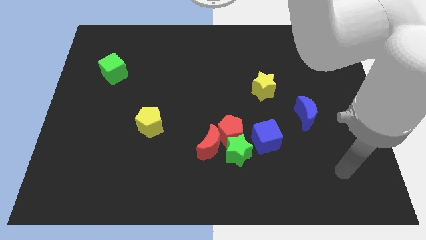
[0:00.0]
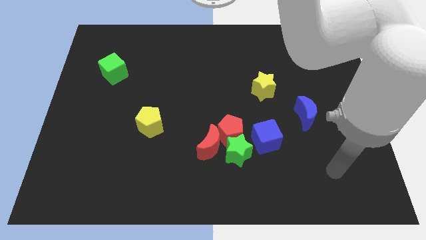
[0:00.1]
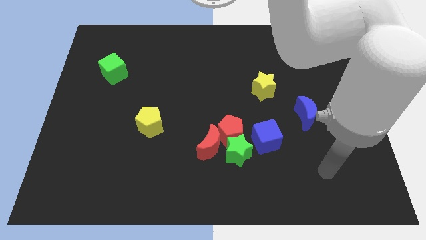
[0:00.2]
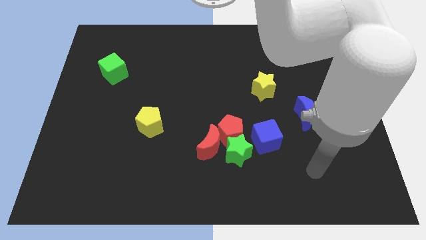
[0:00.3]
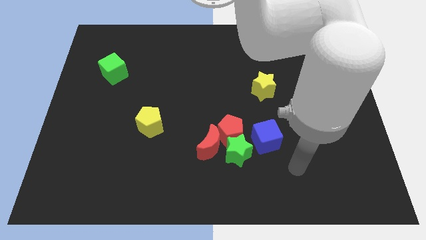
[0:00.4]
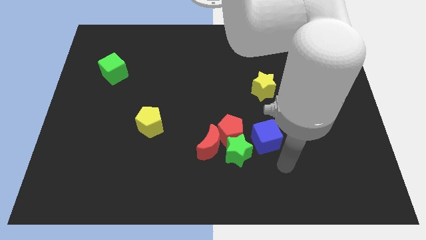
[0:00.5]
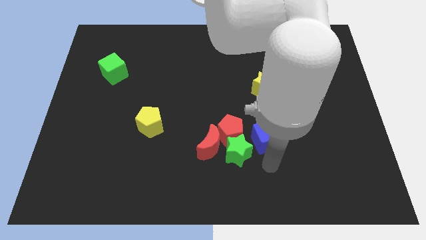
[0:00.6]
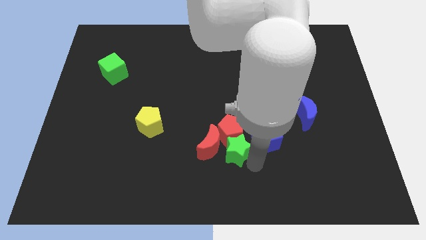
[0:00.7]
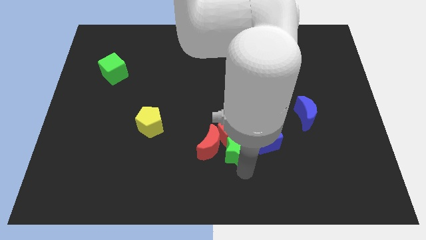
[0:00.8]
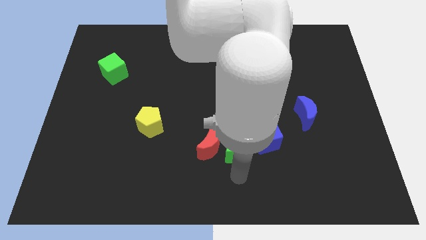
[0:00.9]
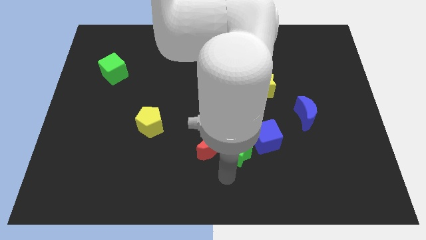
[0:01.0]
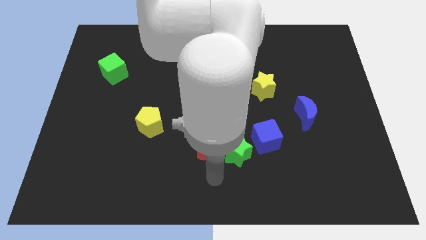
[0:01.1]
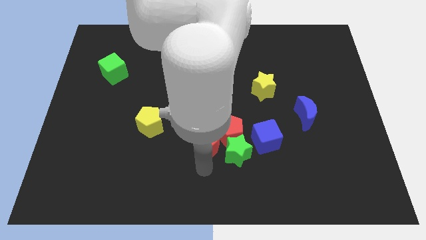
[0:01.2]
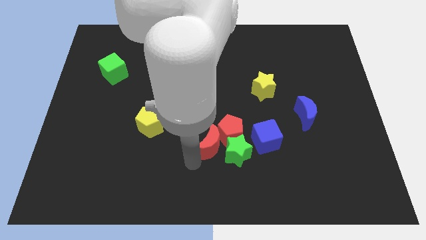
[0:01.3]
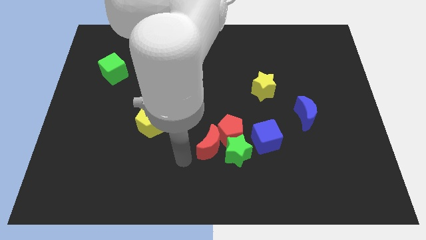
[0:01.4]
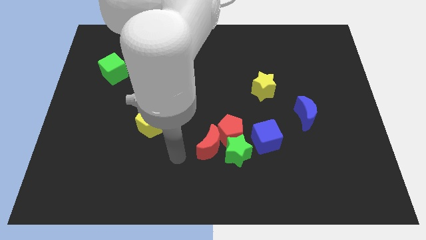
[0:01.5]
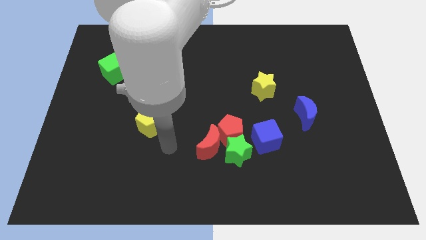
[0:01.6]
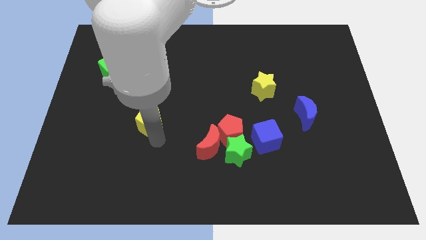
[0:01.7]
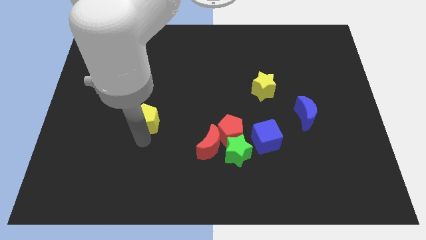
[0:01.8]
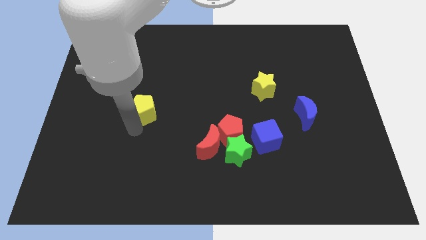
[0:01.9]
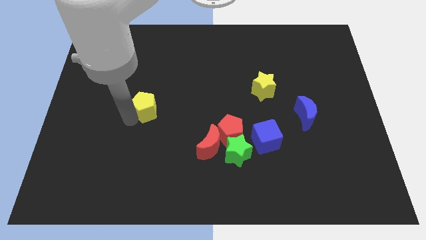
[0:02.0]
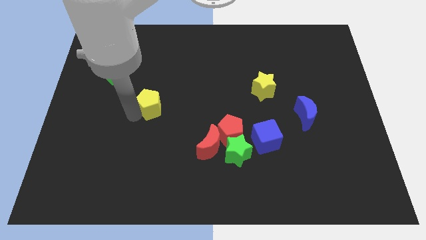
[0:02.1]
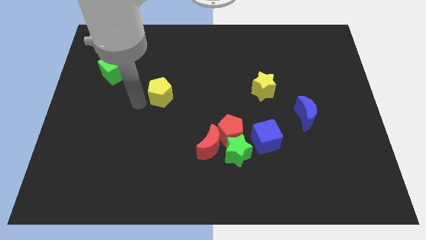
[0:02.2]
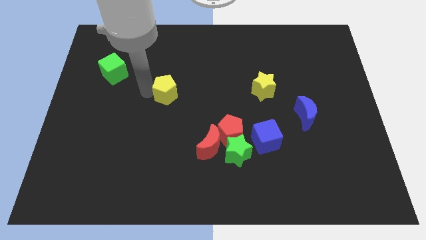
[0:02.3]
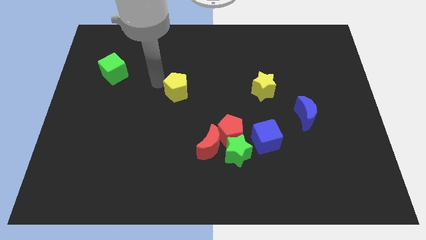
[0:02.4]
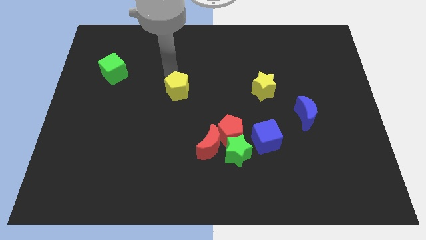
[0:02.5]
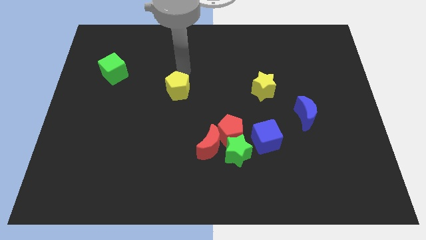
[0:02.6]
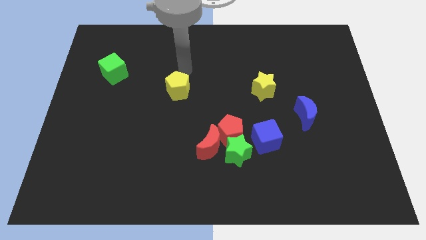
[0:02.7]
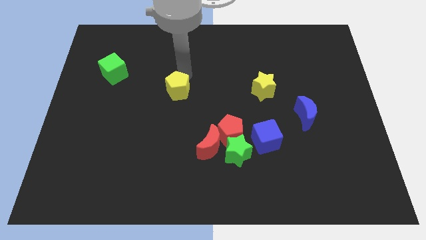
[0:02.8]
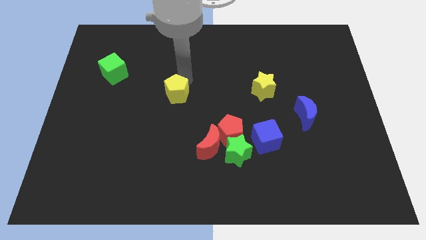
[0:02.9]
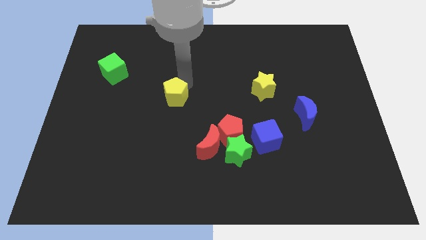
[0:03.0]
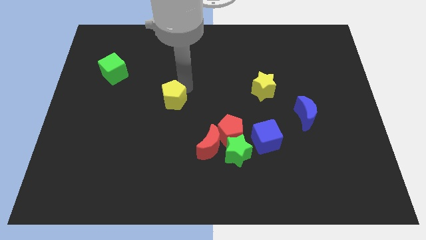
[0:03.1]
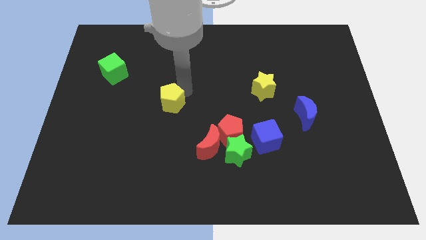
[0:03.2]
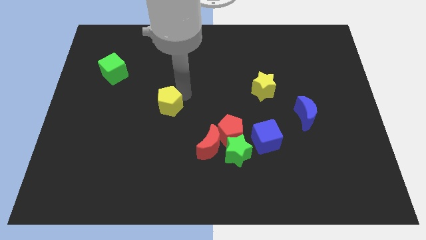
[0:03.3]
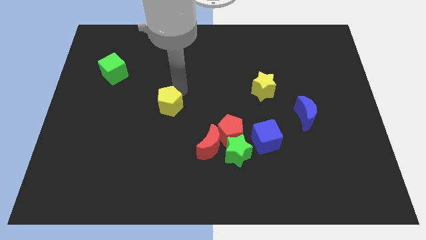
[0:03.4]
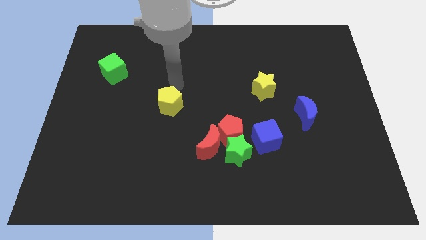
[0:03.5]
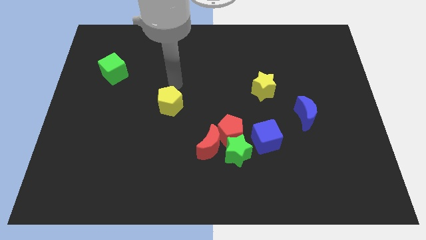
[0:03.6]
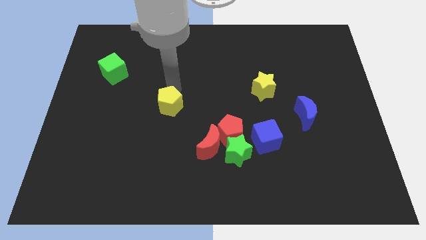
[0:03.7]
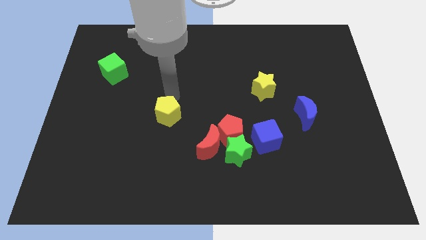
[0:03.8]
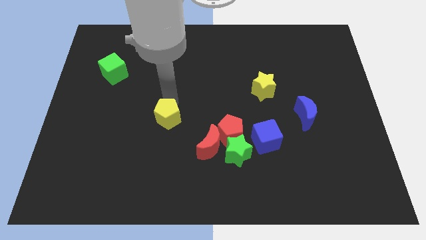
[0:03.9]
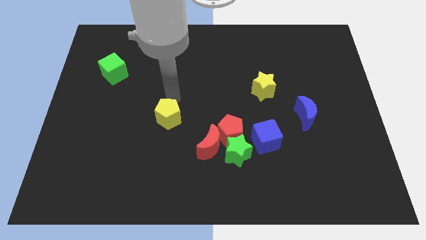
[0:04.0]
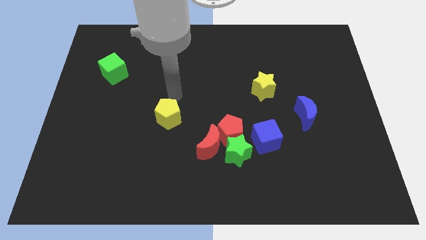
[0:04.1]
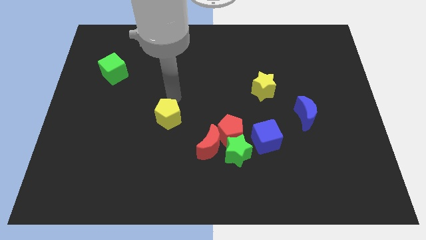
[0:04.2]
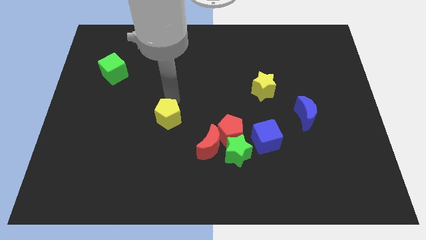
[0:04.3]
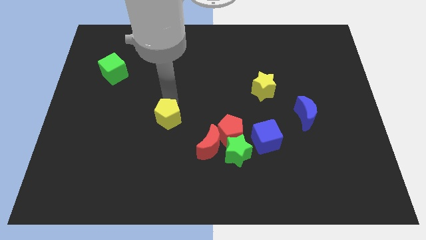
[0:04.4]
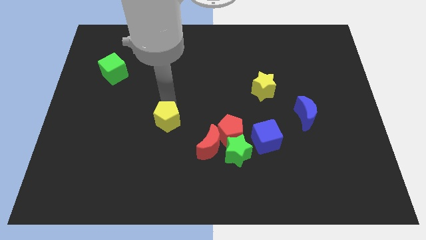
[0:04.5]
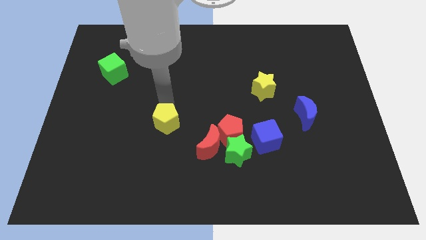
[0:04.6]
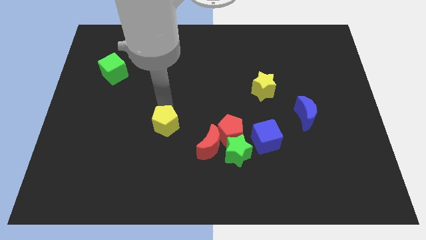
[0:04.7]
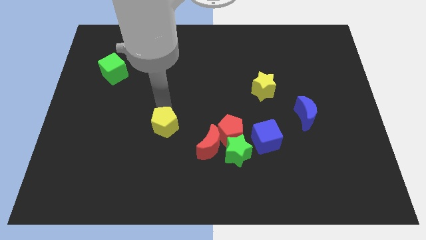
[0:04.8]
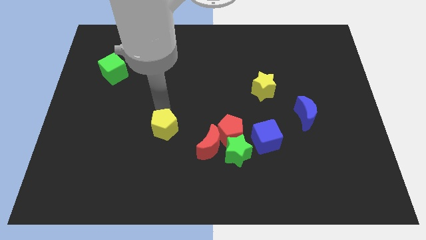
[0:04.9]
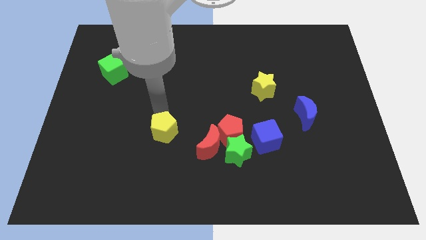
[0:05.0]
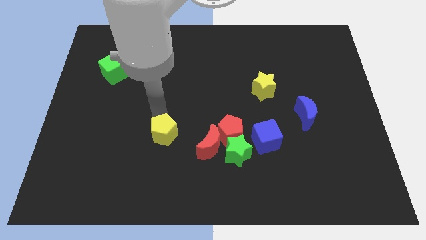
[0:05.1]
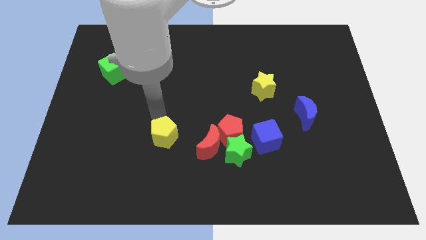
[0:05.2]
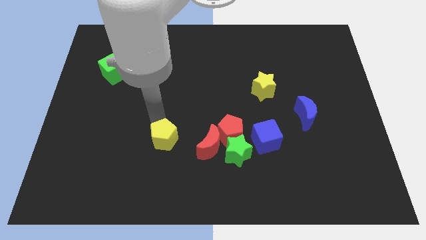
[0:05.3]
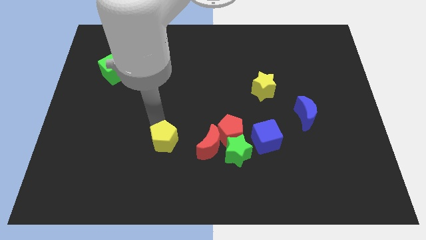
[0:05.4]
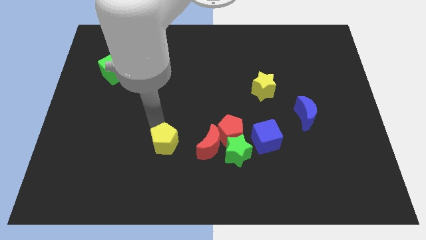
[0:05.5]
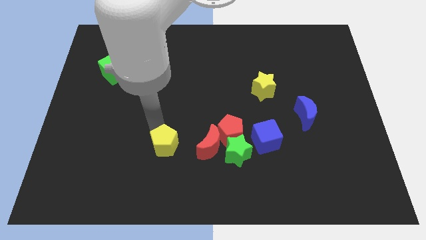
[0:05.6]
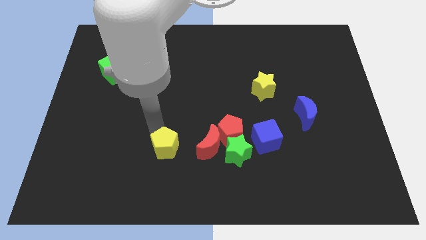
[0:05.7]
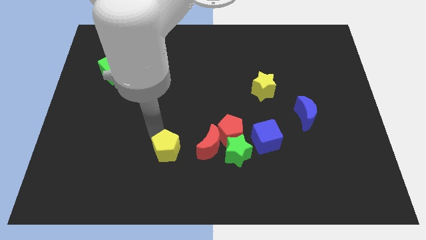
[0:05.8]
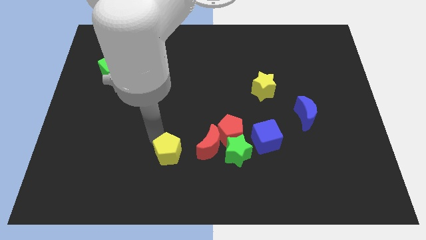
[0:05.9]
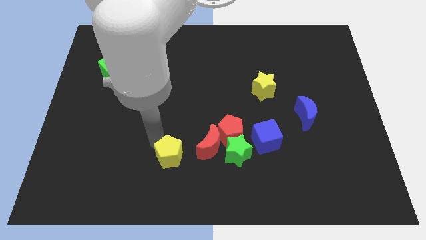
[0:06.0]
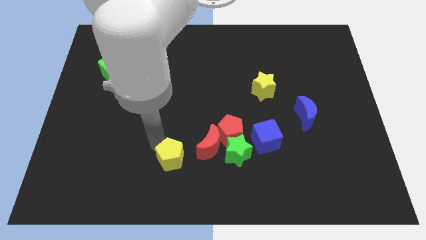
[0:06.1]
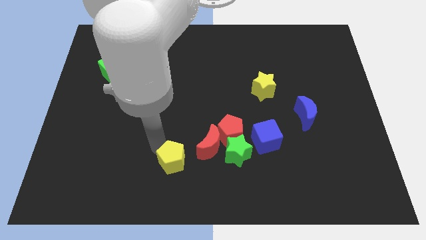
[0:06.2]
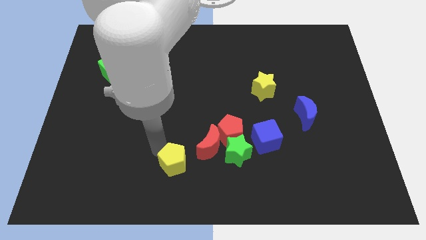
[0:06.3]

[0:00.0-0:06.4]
push the yellow pentagon to the bottom

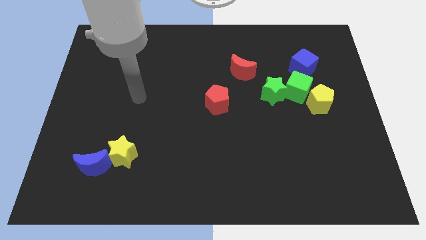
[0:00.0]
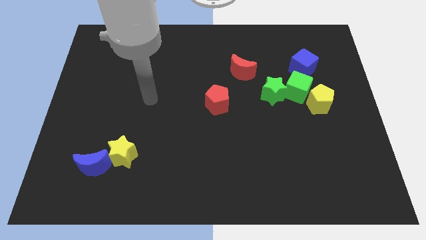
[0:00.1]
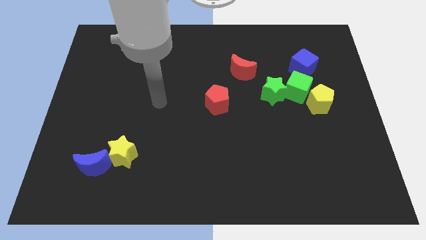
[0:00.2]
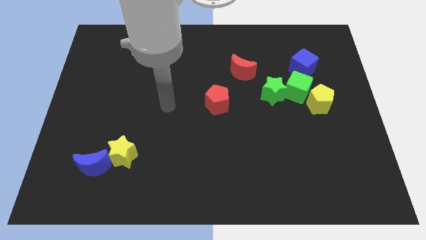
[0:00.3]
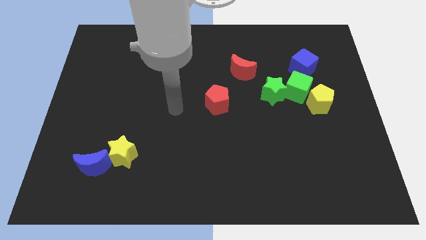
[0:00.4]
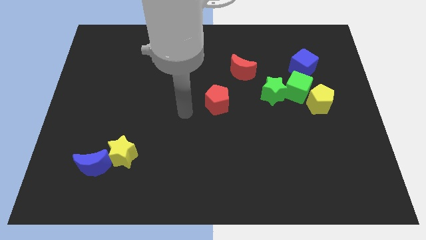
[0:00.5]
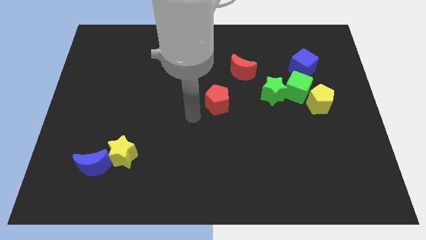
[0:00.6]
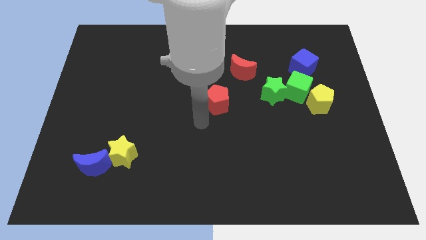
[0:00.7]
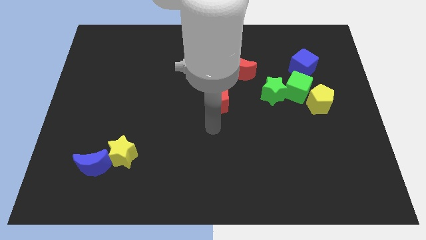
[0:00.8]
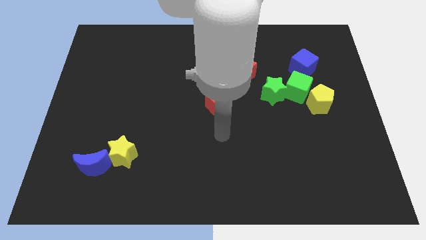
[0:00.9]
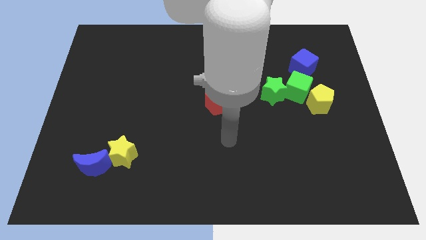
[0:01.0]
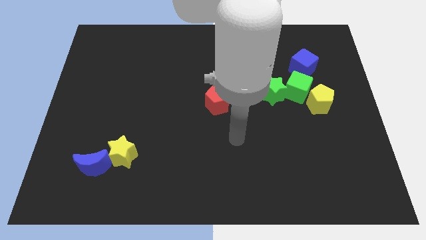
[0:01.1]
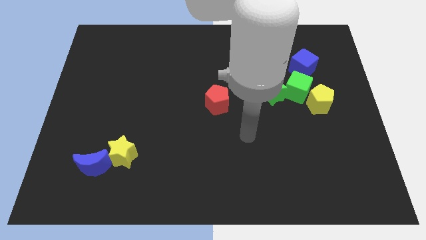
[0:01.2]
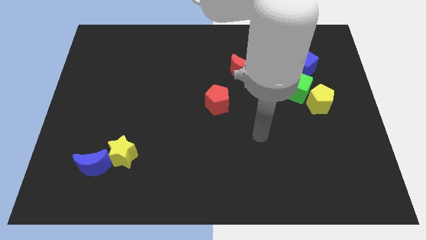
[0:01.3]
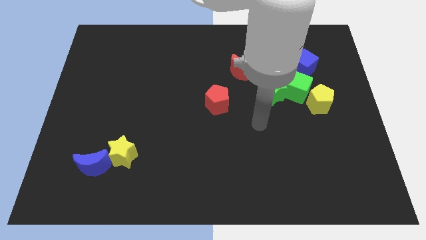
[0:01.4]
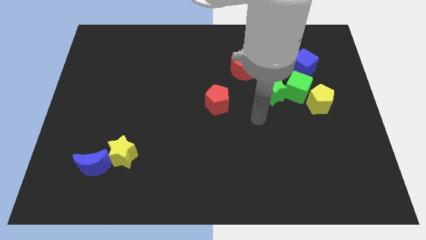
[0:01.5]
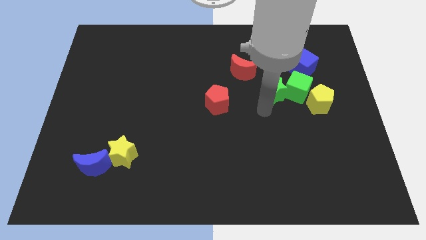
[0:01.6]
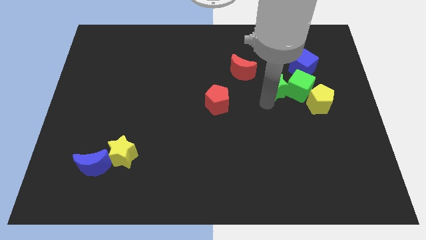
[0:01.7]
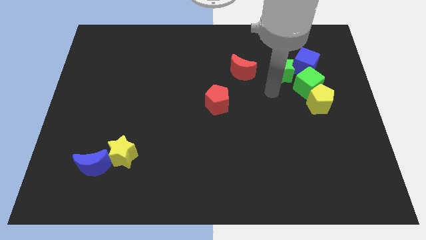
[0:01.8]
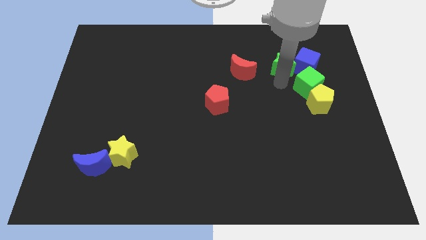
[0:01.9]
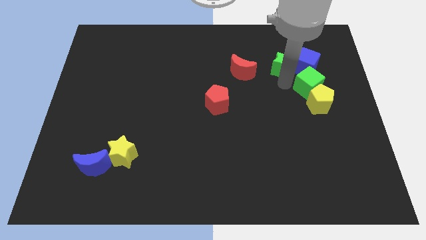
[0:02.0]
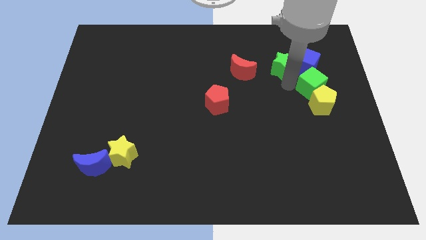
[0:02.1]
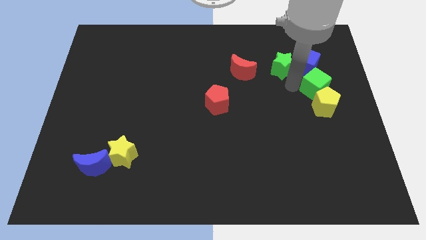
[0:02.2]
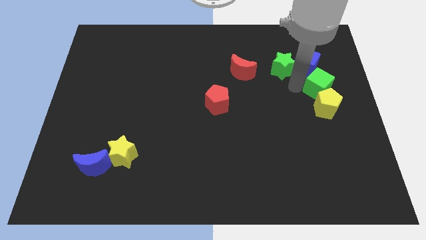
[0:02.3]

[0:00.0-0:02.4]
put the green cube to the right side of the board
